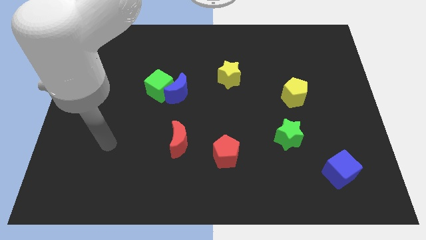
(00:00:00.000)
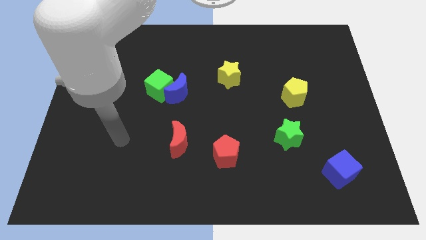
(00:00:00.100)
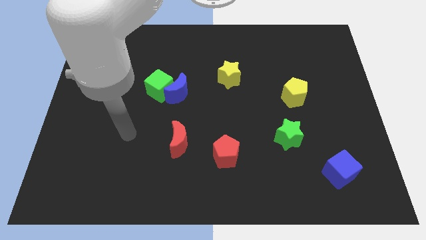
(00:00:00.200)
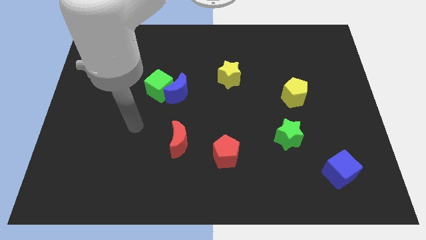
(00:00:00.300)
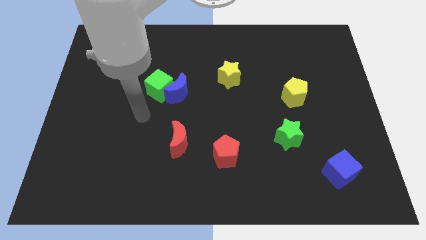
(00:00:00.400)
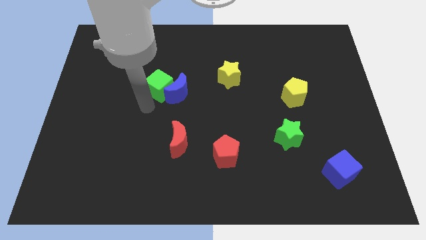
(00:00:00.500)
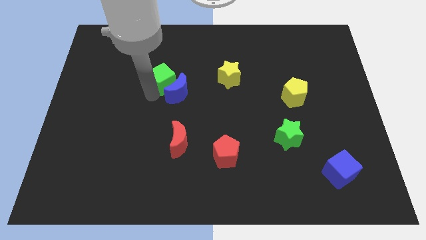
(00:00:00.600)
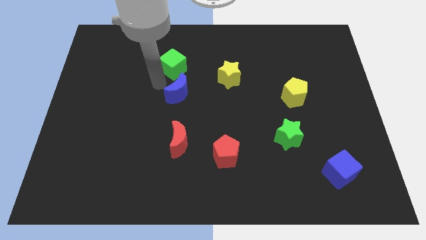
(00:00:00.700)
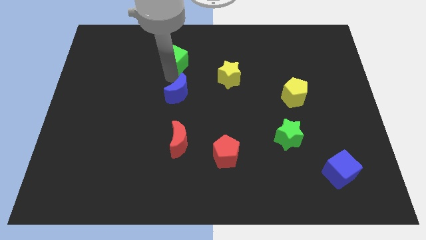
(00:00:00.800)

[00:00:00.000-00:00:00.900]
separate the blue moon from the green cube

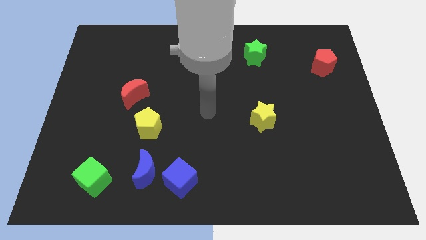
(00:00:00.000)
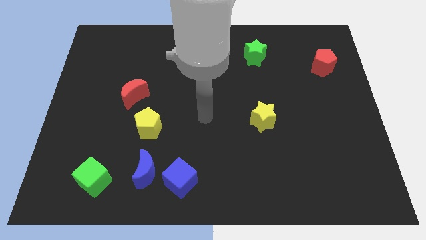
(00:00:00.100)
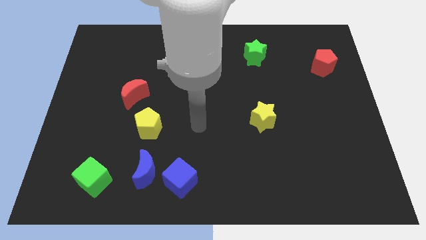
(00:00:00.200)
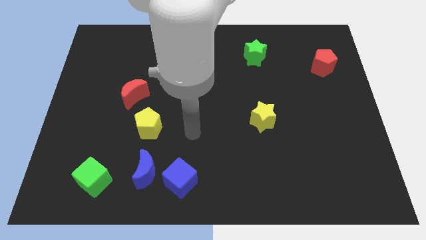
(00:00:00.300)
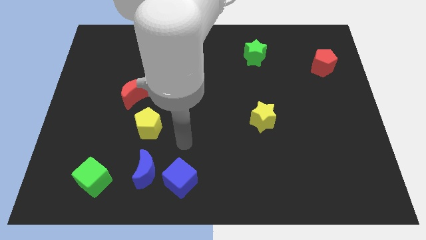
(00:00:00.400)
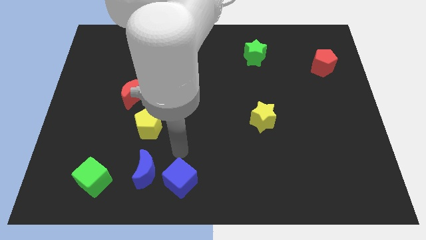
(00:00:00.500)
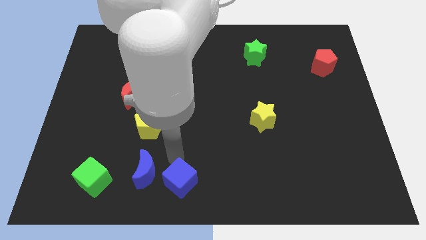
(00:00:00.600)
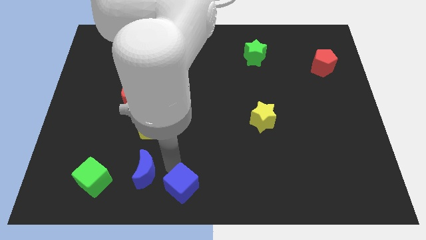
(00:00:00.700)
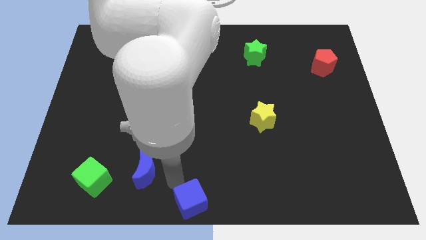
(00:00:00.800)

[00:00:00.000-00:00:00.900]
pull the blue moon apart from the blue cube

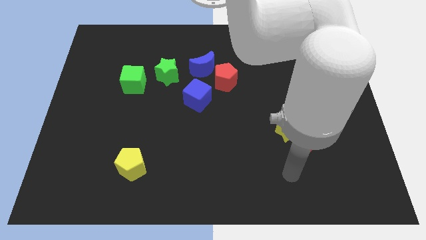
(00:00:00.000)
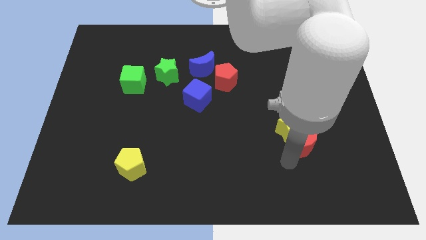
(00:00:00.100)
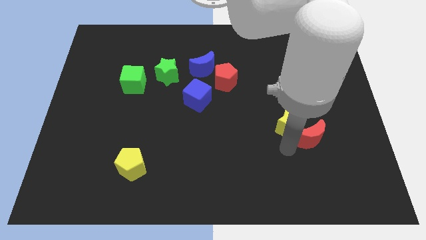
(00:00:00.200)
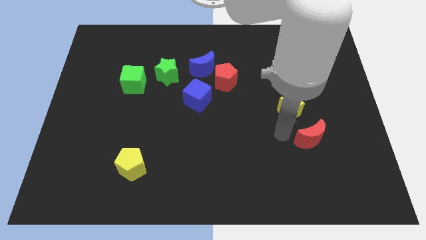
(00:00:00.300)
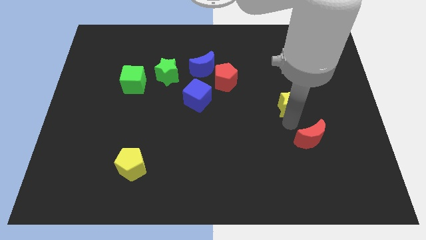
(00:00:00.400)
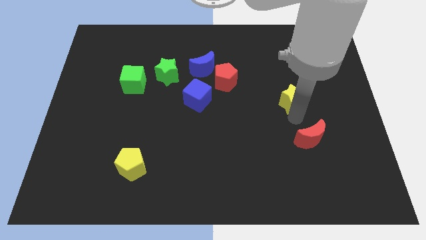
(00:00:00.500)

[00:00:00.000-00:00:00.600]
pull the red moon apart from the yellow star

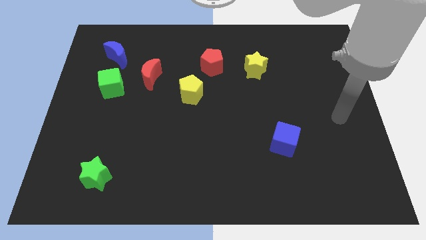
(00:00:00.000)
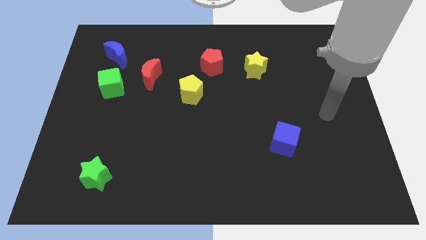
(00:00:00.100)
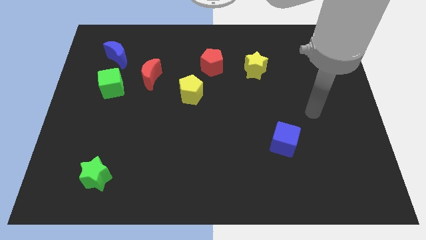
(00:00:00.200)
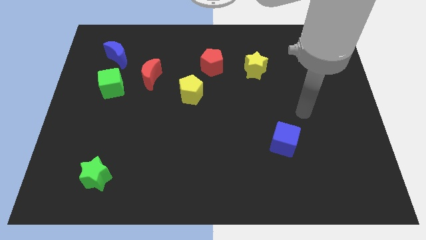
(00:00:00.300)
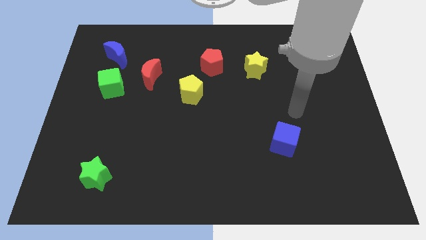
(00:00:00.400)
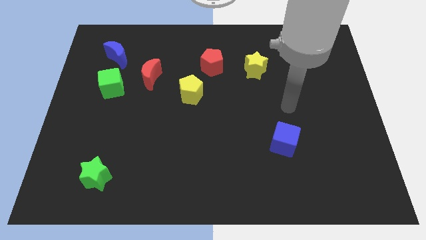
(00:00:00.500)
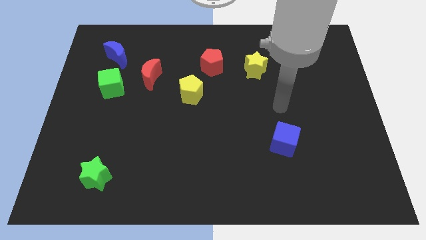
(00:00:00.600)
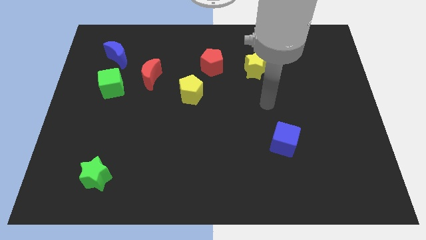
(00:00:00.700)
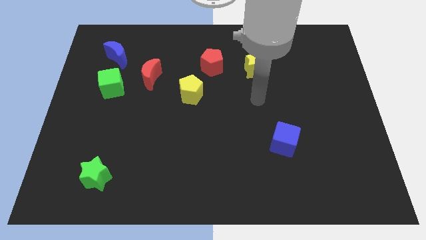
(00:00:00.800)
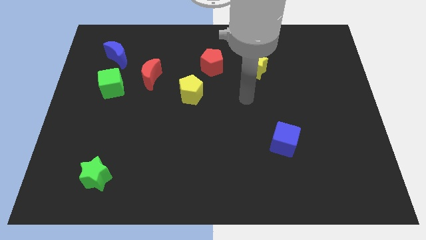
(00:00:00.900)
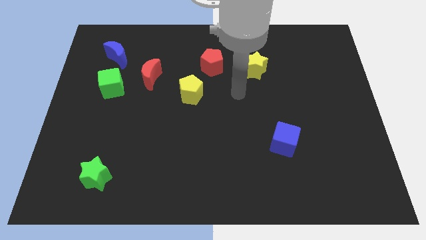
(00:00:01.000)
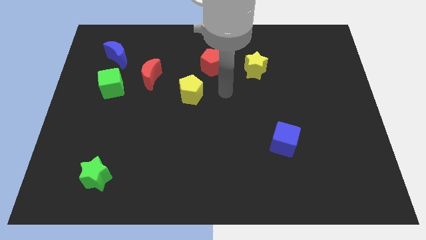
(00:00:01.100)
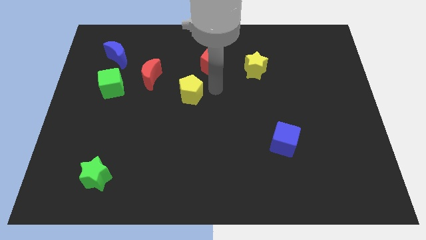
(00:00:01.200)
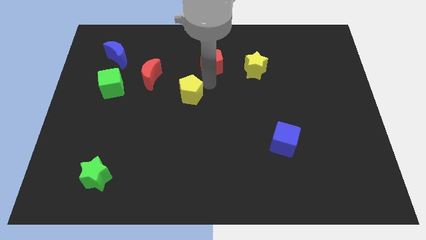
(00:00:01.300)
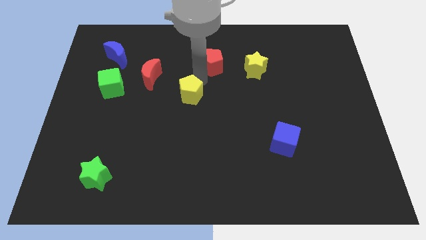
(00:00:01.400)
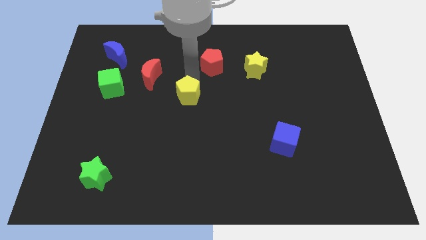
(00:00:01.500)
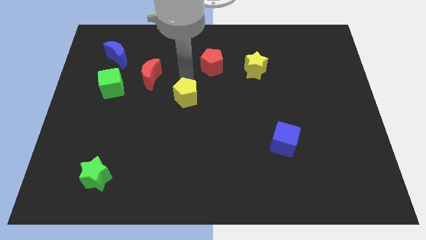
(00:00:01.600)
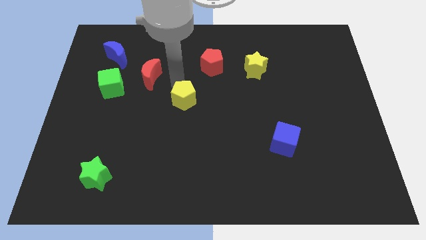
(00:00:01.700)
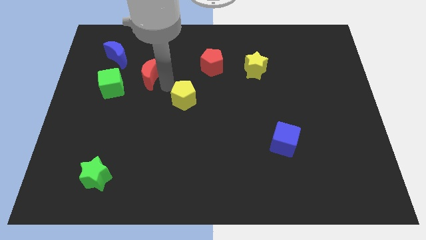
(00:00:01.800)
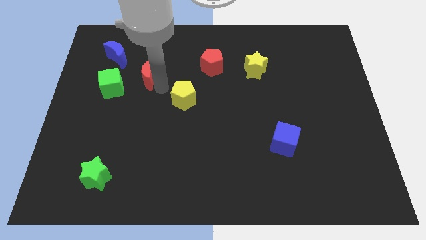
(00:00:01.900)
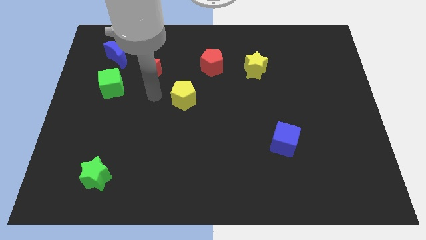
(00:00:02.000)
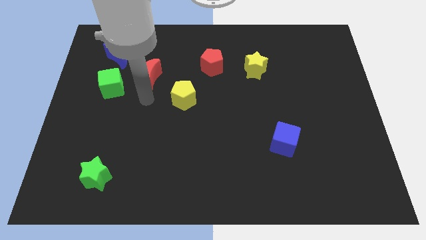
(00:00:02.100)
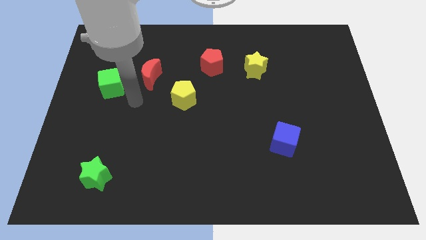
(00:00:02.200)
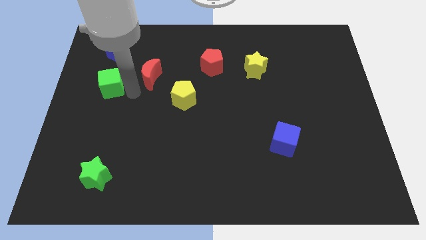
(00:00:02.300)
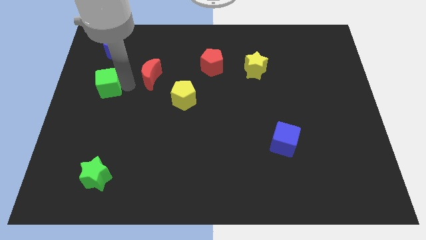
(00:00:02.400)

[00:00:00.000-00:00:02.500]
move the red moon away from the green cube

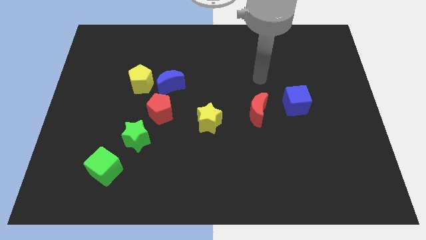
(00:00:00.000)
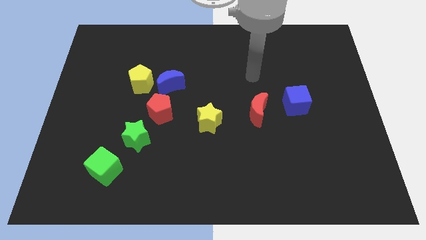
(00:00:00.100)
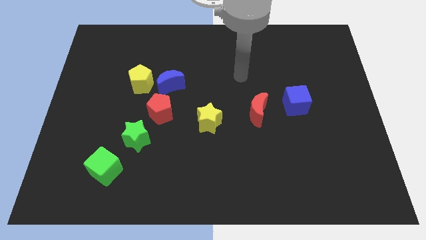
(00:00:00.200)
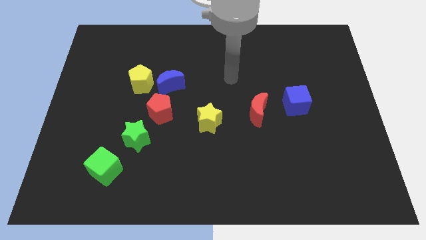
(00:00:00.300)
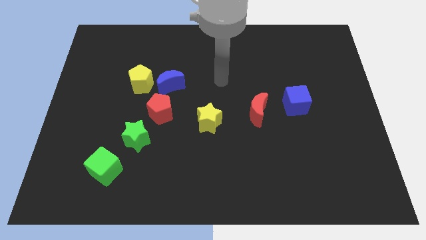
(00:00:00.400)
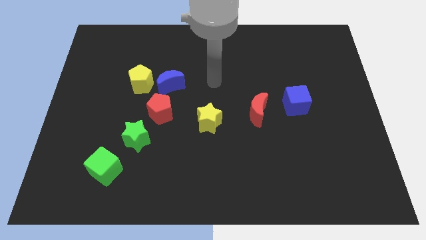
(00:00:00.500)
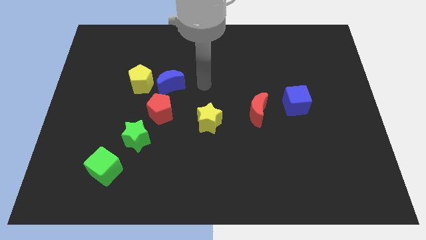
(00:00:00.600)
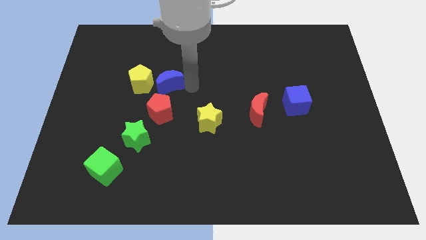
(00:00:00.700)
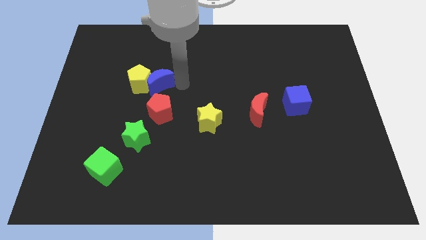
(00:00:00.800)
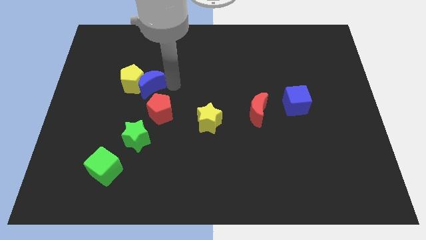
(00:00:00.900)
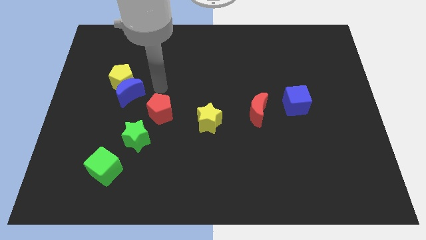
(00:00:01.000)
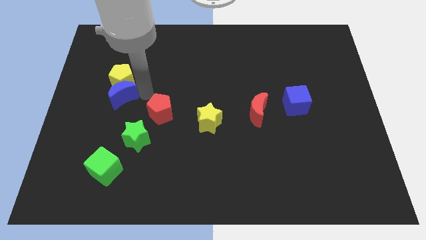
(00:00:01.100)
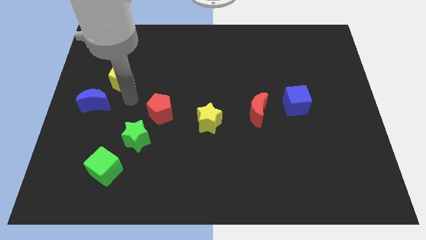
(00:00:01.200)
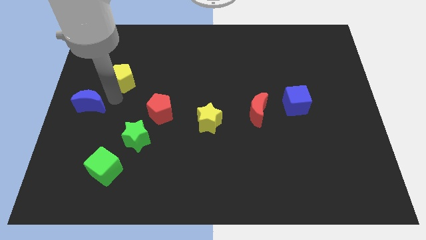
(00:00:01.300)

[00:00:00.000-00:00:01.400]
pull the yellow pentagon apart from the blue moon

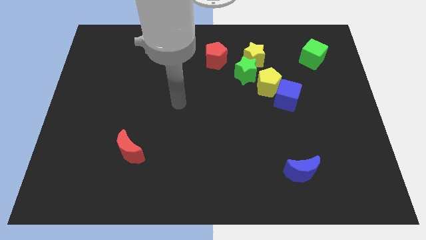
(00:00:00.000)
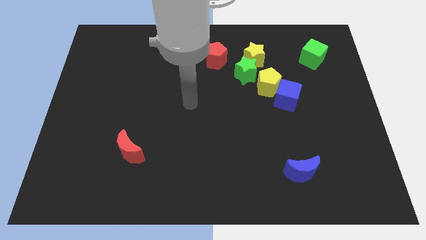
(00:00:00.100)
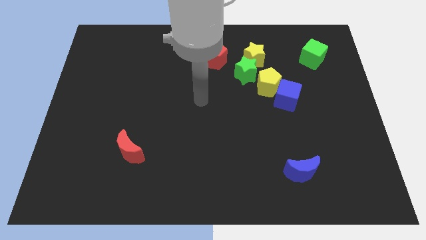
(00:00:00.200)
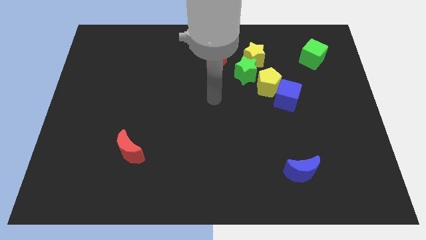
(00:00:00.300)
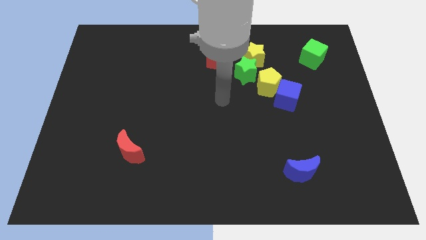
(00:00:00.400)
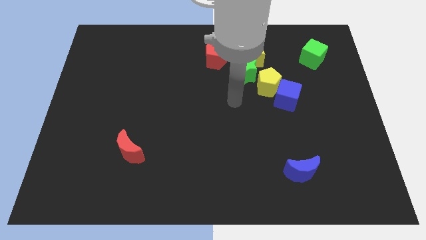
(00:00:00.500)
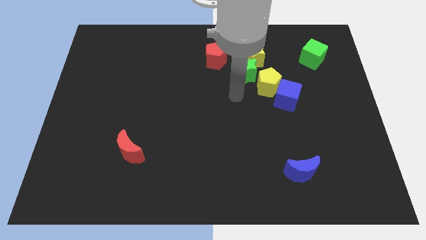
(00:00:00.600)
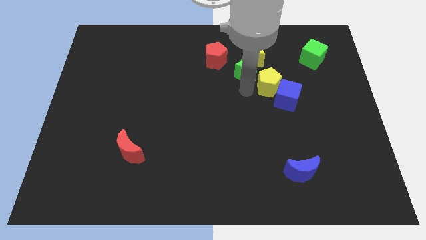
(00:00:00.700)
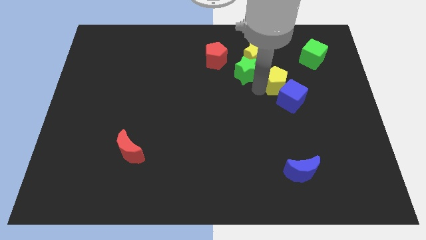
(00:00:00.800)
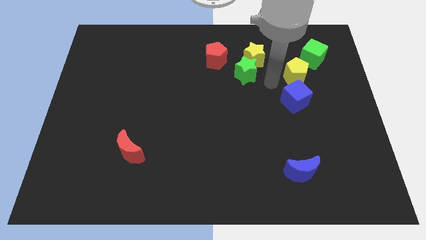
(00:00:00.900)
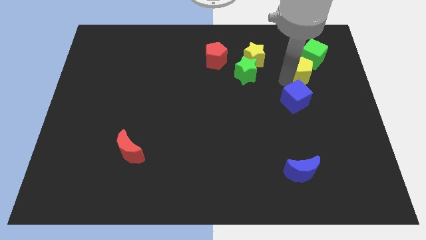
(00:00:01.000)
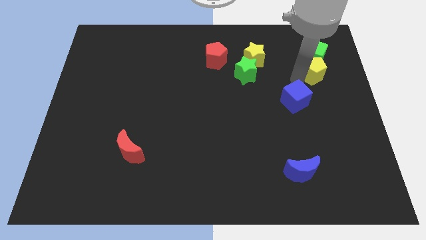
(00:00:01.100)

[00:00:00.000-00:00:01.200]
move the blue cube away from the yellow pentagon

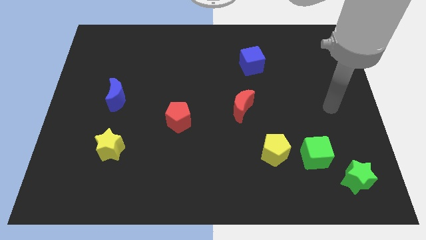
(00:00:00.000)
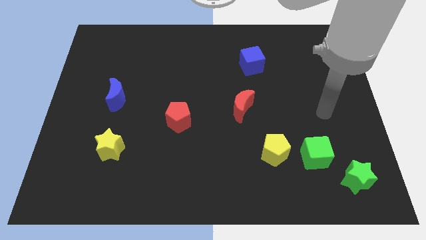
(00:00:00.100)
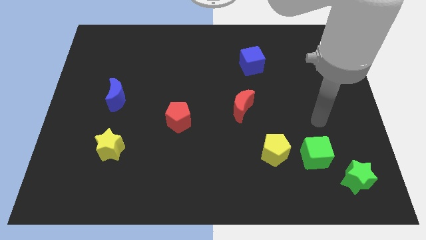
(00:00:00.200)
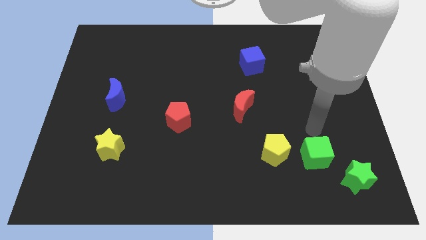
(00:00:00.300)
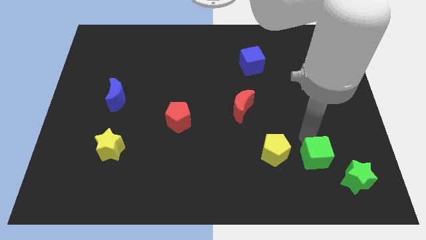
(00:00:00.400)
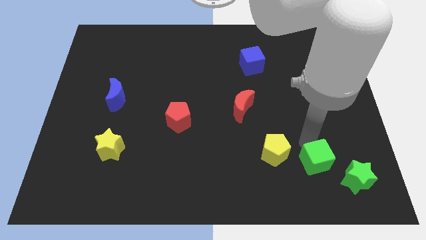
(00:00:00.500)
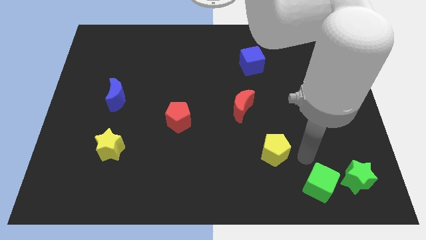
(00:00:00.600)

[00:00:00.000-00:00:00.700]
separate the yellow pentagon from the green cube

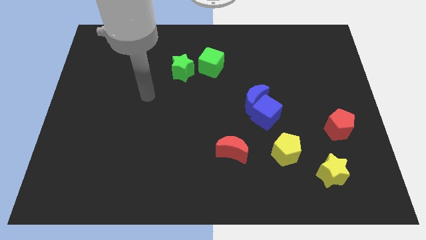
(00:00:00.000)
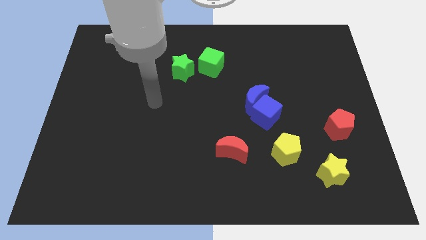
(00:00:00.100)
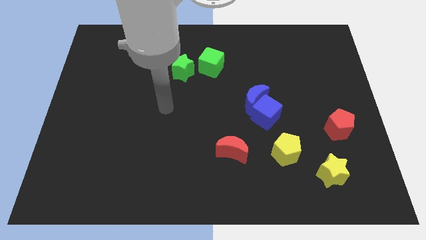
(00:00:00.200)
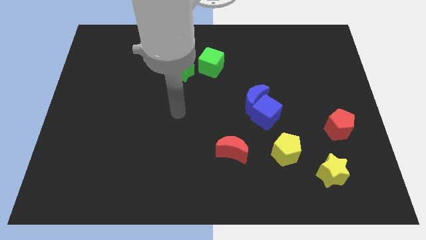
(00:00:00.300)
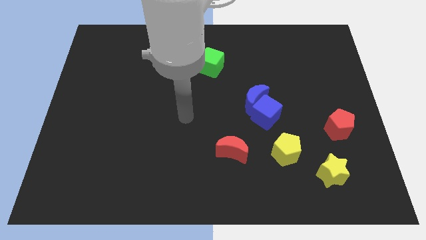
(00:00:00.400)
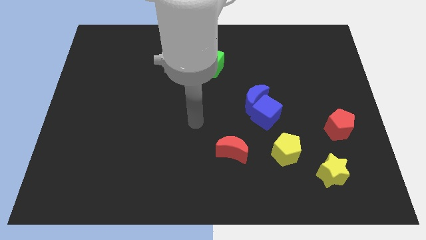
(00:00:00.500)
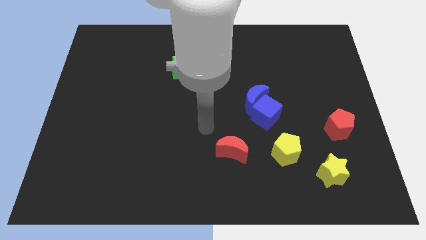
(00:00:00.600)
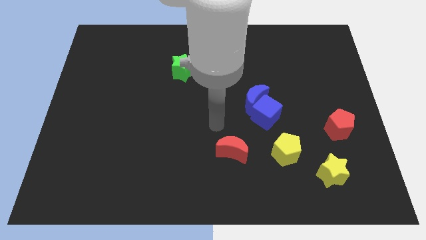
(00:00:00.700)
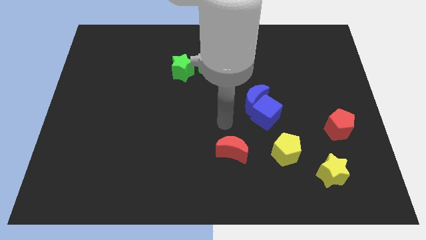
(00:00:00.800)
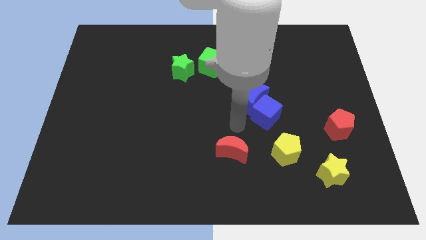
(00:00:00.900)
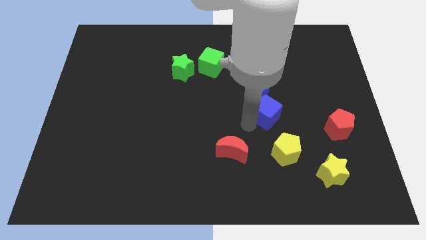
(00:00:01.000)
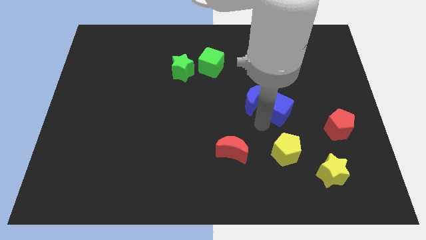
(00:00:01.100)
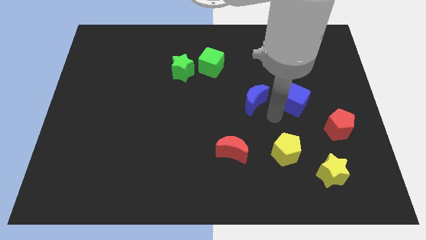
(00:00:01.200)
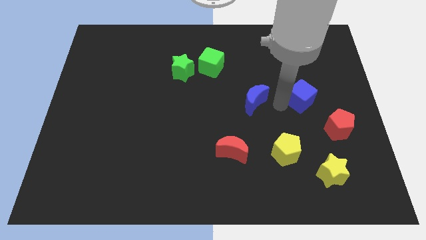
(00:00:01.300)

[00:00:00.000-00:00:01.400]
move the blue moon away from the blue cube
